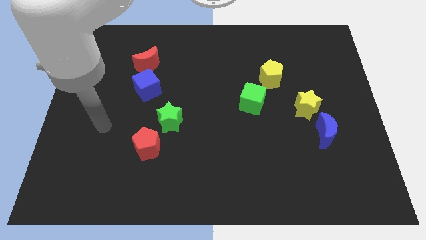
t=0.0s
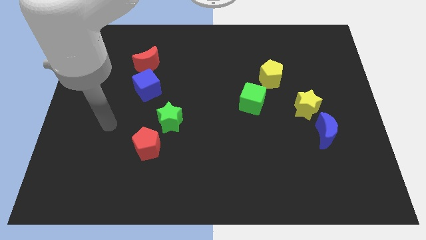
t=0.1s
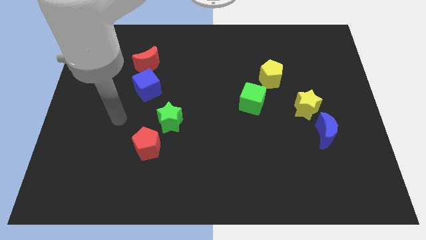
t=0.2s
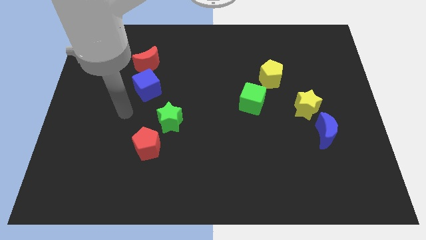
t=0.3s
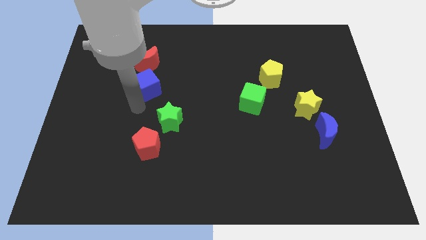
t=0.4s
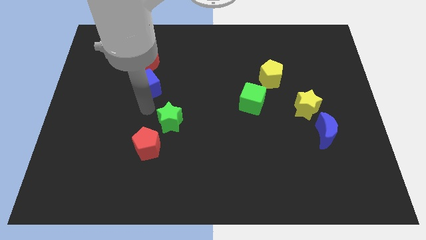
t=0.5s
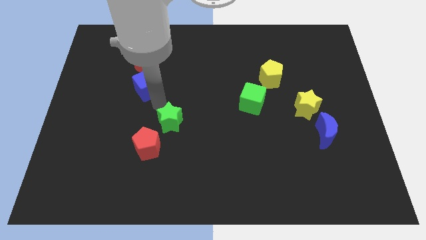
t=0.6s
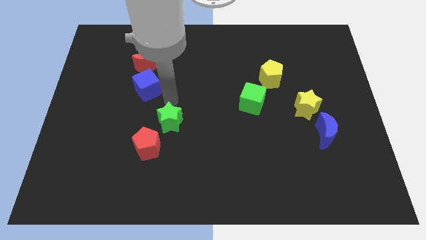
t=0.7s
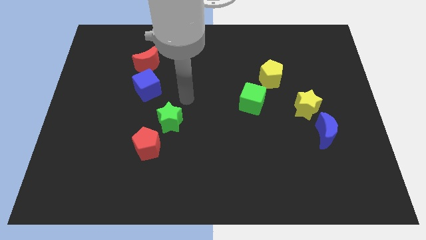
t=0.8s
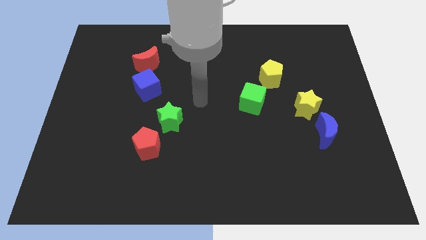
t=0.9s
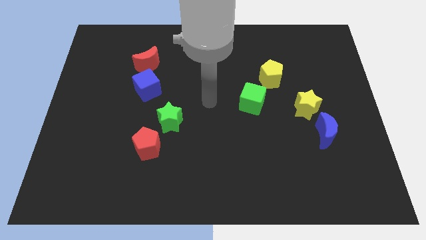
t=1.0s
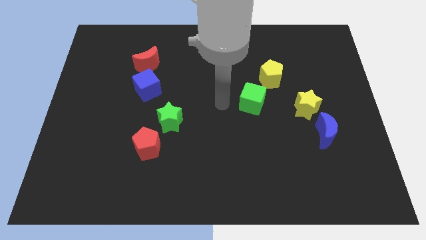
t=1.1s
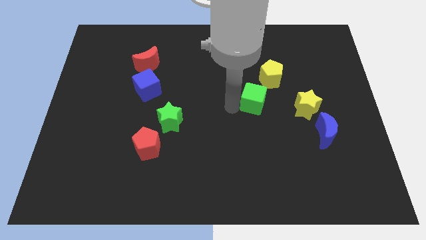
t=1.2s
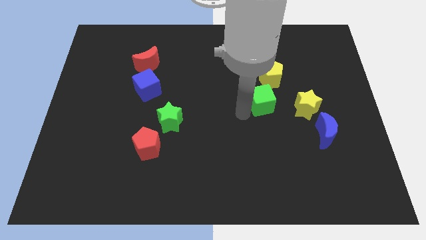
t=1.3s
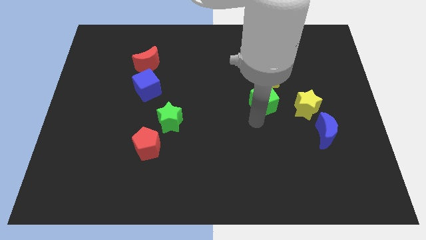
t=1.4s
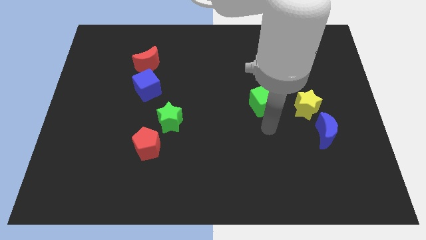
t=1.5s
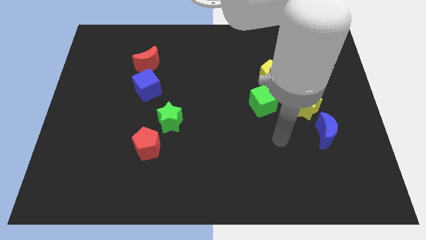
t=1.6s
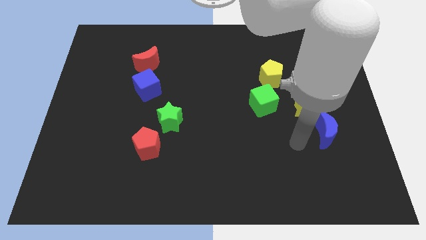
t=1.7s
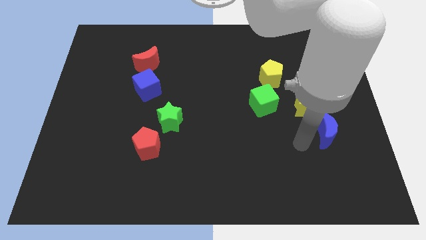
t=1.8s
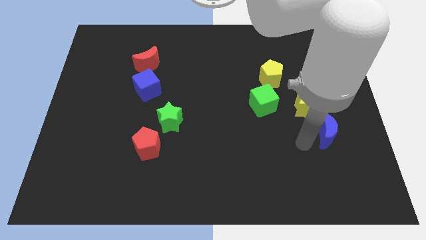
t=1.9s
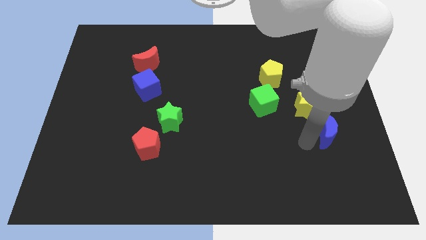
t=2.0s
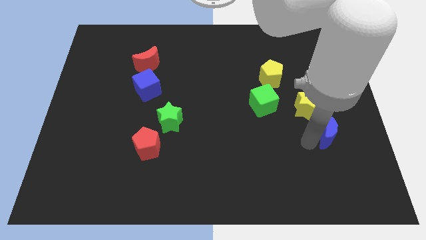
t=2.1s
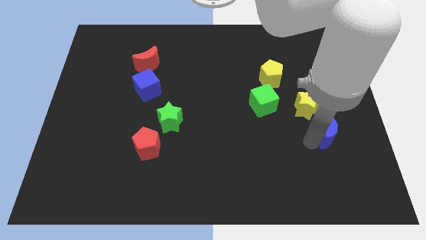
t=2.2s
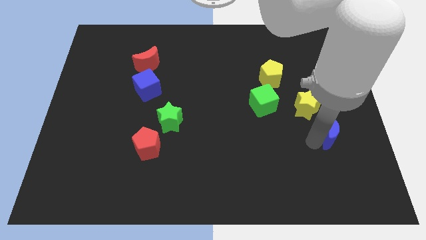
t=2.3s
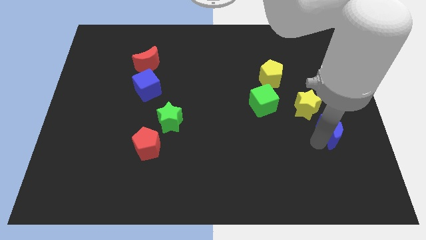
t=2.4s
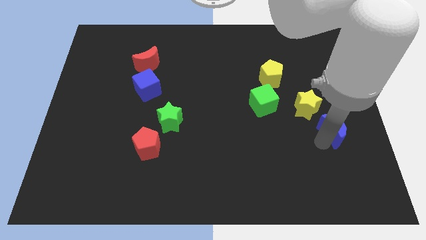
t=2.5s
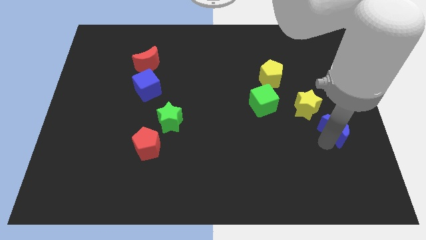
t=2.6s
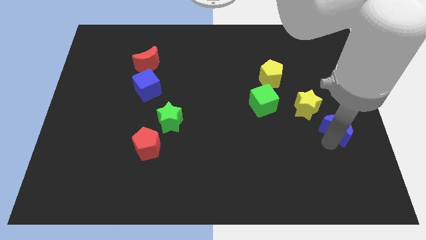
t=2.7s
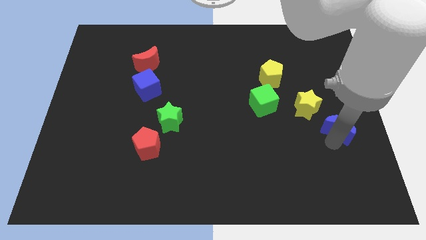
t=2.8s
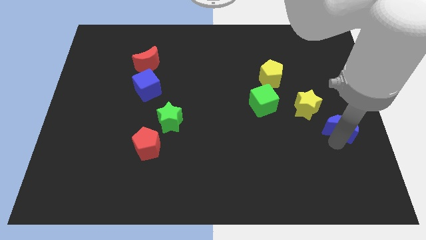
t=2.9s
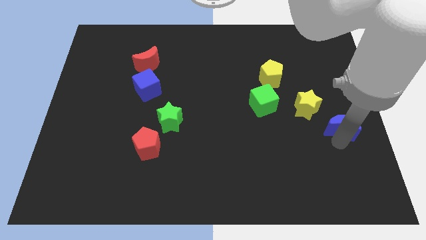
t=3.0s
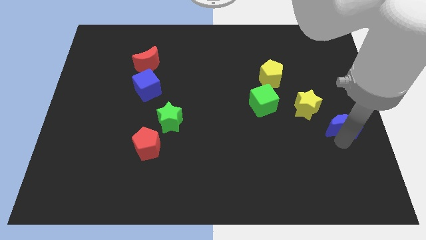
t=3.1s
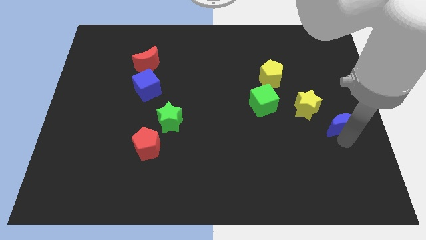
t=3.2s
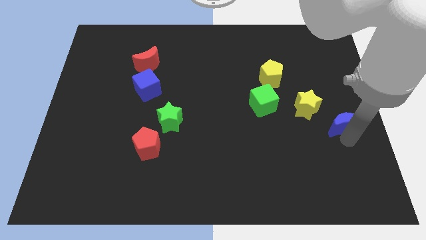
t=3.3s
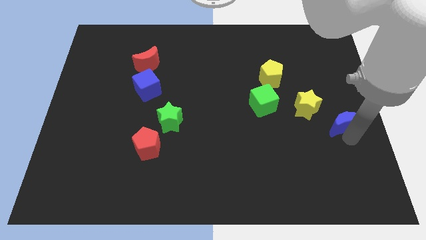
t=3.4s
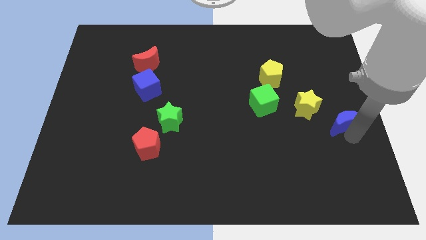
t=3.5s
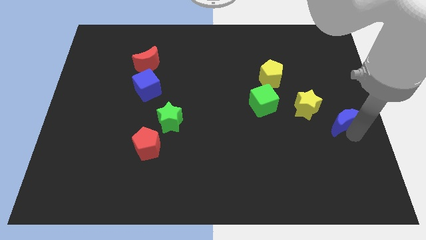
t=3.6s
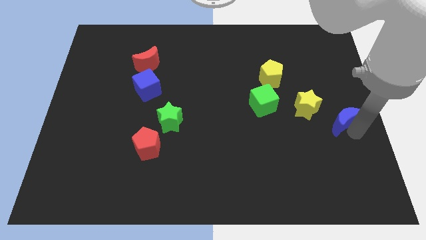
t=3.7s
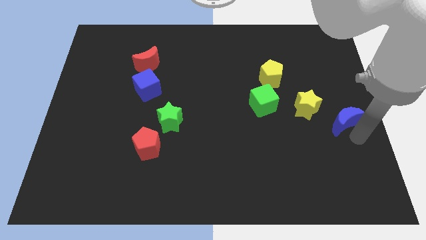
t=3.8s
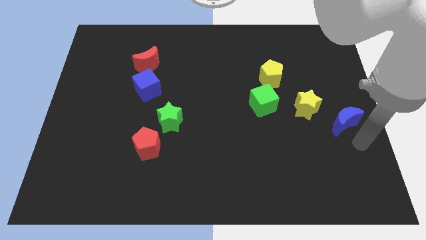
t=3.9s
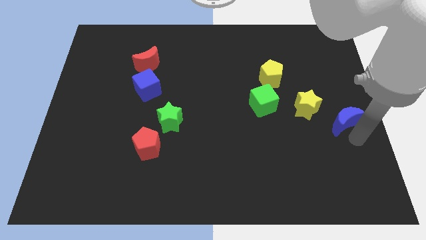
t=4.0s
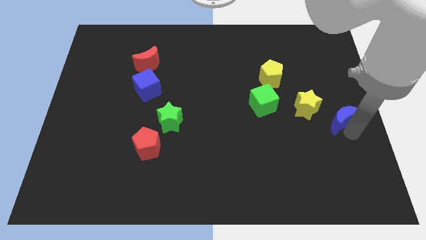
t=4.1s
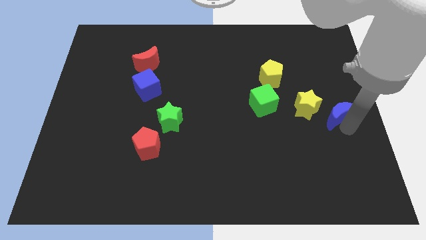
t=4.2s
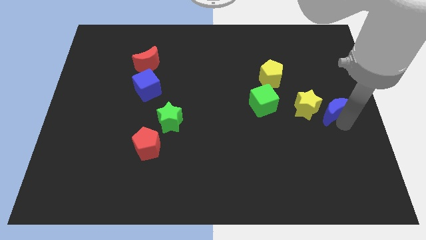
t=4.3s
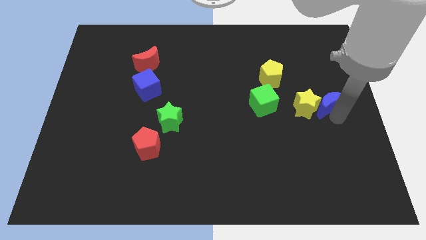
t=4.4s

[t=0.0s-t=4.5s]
slightly move the blue moon upwards

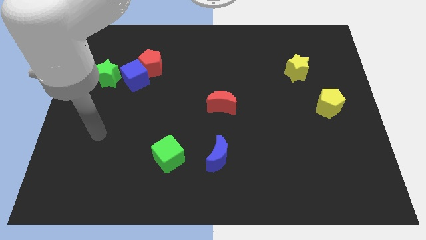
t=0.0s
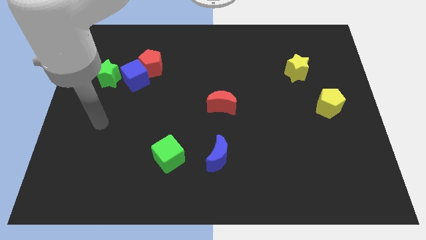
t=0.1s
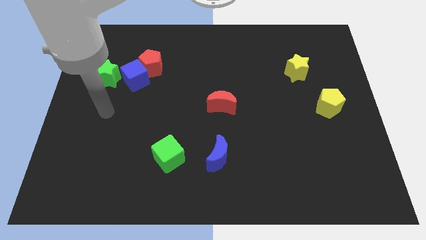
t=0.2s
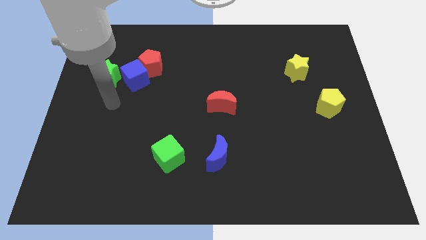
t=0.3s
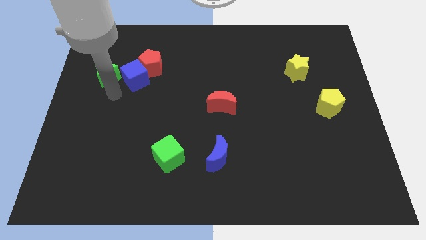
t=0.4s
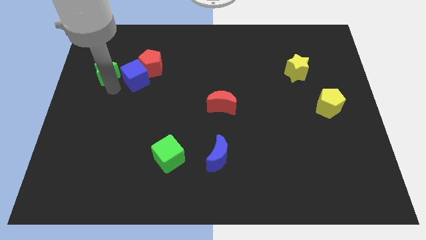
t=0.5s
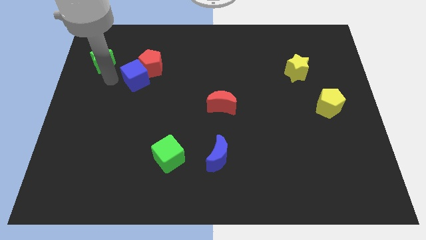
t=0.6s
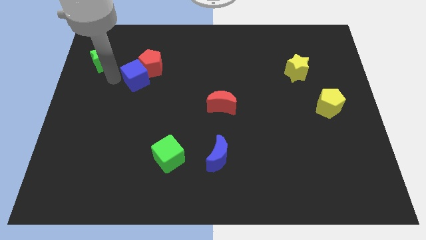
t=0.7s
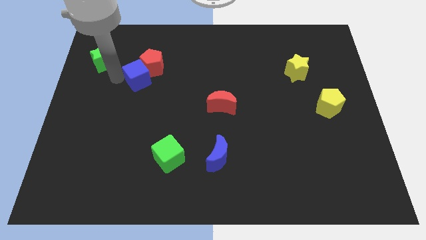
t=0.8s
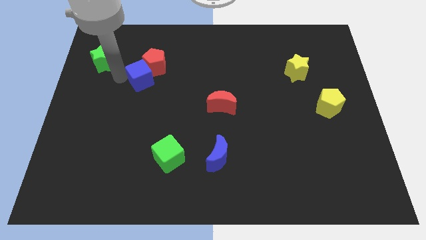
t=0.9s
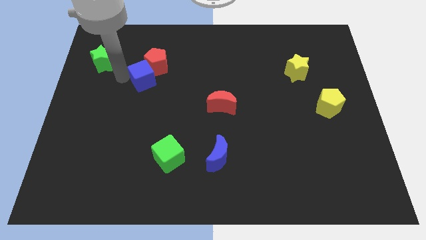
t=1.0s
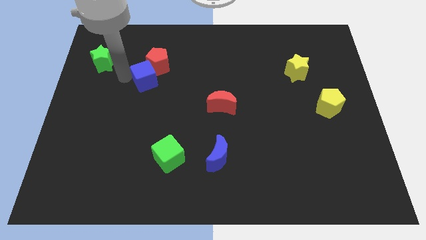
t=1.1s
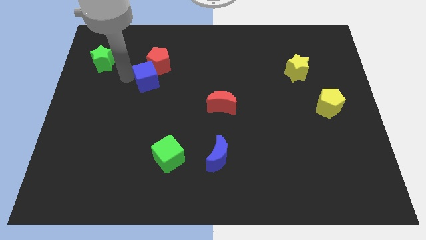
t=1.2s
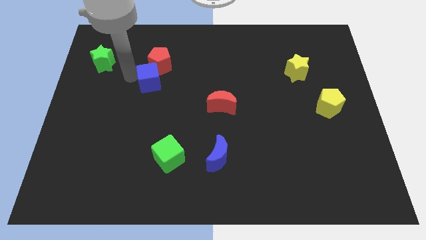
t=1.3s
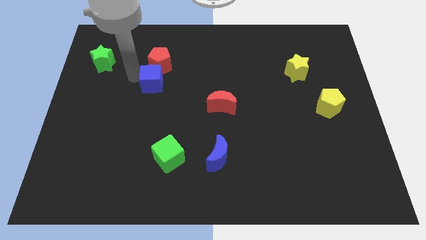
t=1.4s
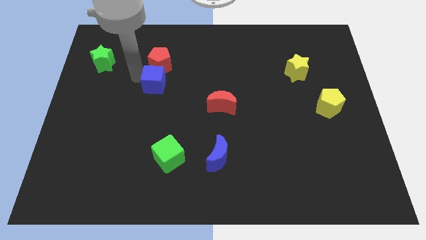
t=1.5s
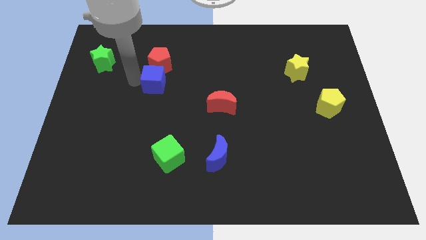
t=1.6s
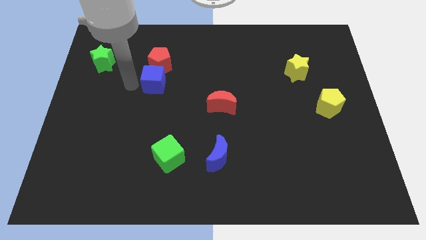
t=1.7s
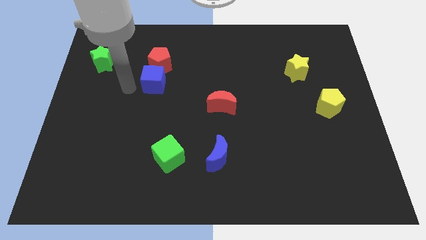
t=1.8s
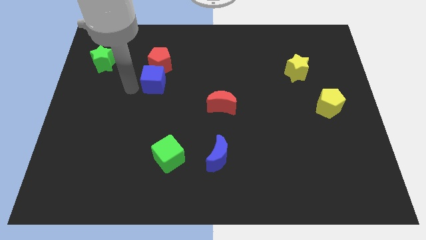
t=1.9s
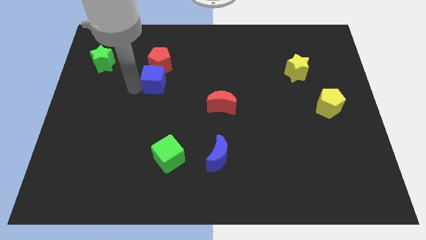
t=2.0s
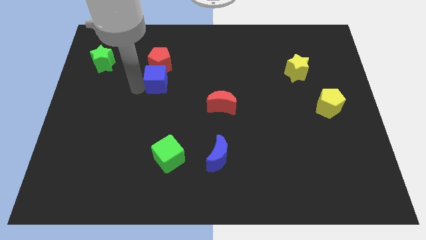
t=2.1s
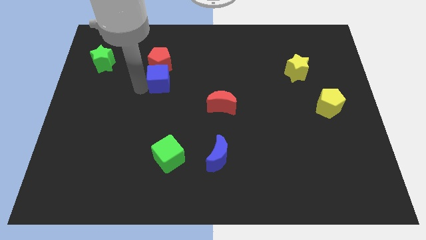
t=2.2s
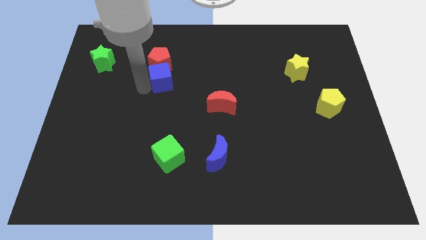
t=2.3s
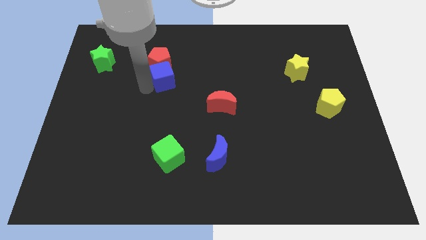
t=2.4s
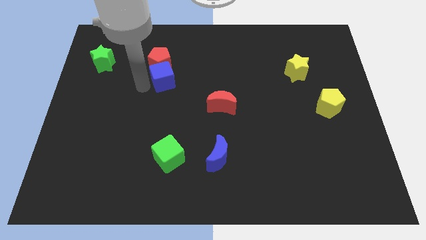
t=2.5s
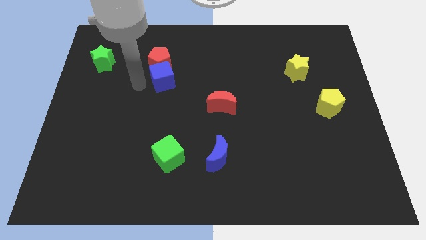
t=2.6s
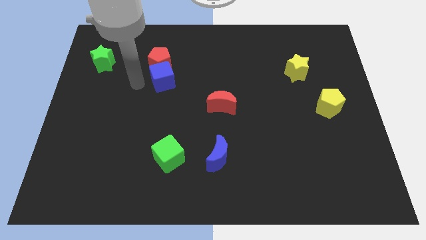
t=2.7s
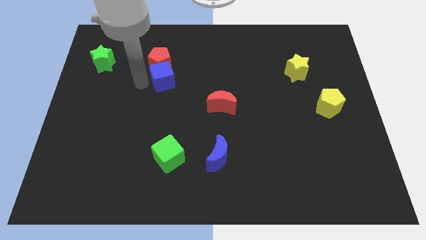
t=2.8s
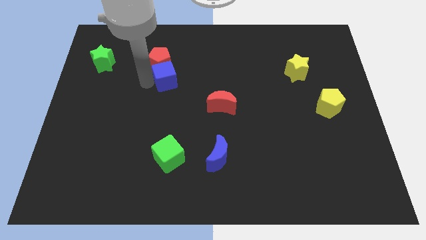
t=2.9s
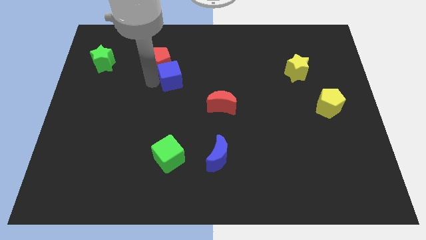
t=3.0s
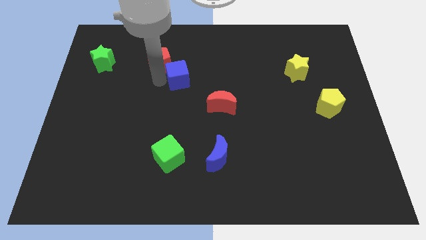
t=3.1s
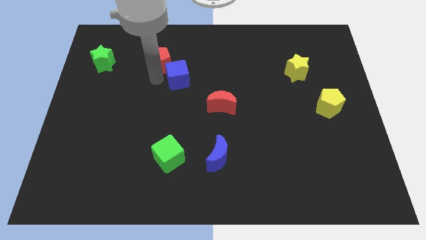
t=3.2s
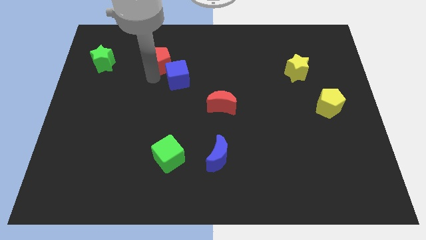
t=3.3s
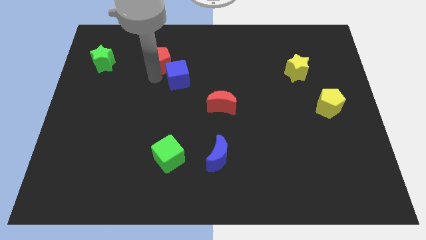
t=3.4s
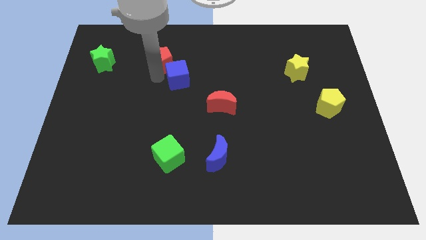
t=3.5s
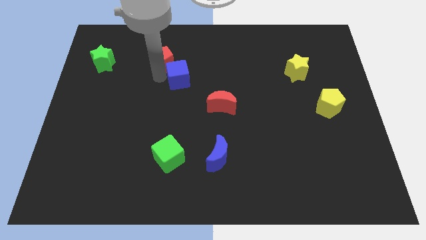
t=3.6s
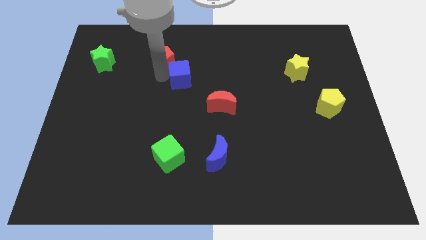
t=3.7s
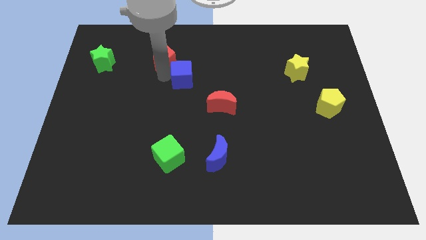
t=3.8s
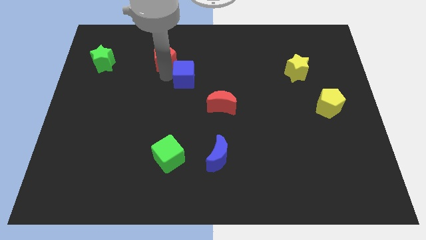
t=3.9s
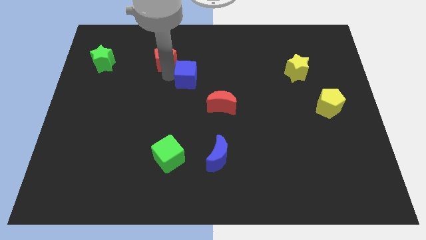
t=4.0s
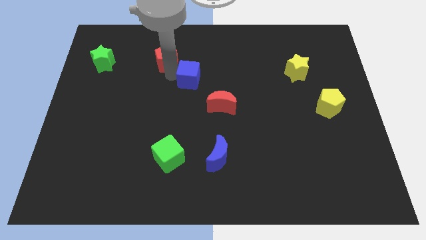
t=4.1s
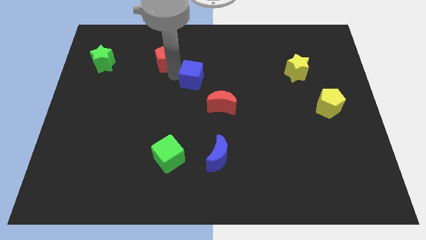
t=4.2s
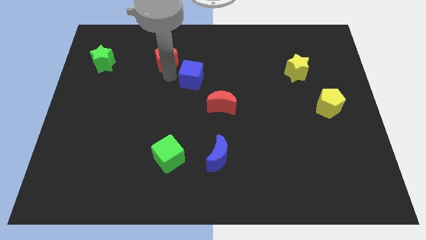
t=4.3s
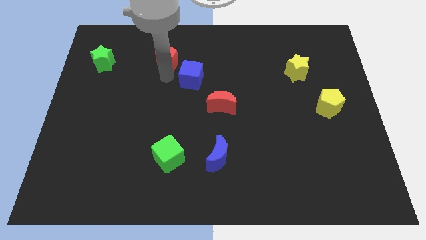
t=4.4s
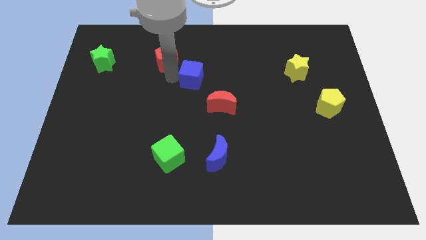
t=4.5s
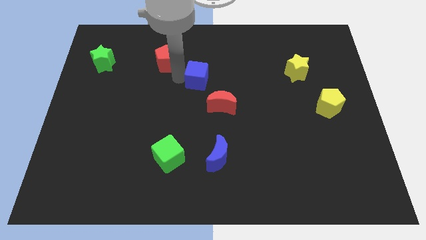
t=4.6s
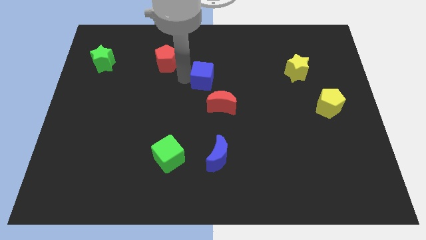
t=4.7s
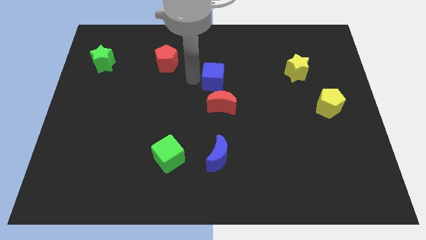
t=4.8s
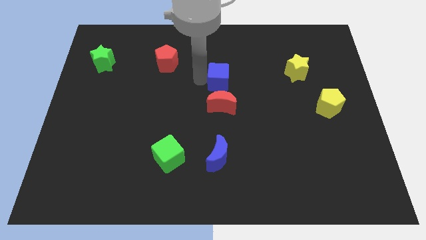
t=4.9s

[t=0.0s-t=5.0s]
move the blue cube right
